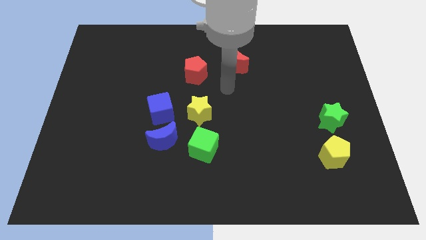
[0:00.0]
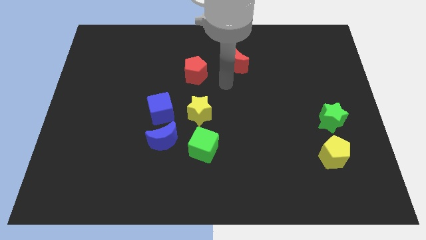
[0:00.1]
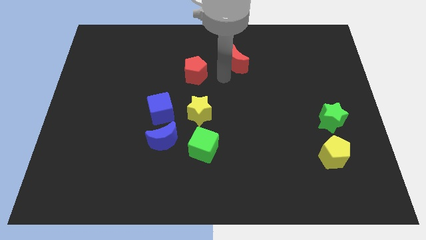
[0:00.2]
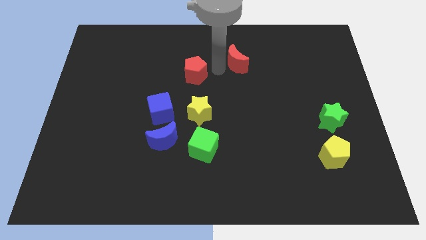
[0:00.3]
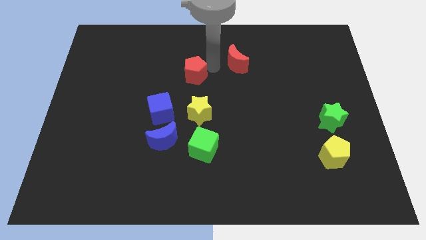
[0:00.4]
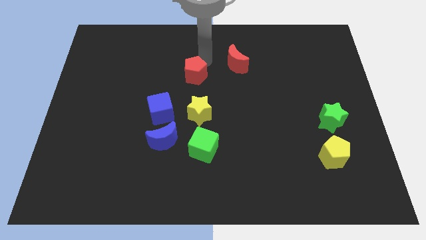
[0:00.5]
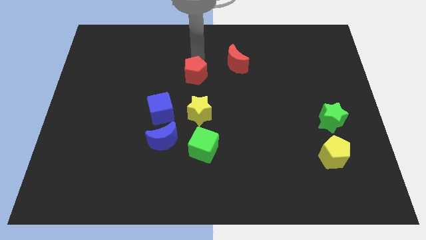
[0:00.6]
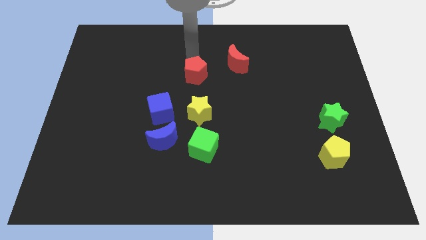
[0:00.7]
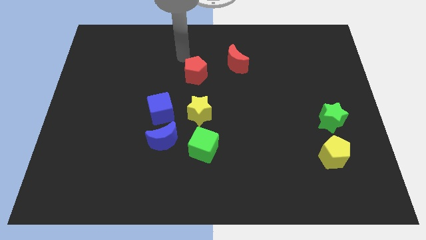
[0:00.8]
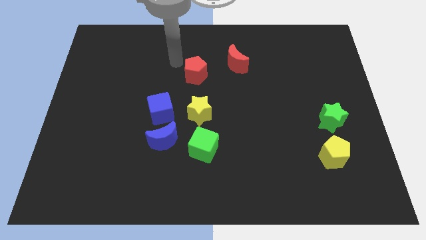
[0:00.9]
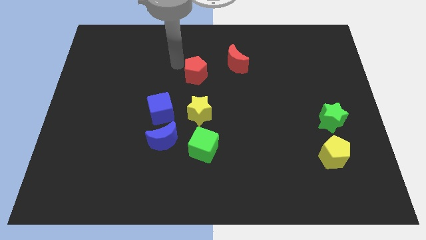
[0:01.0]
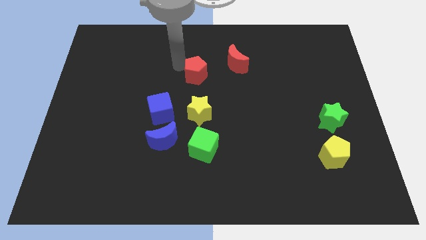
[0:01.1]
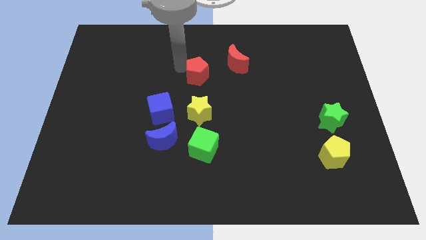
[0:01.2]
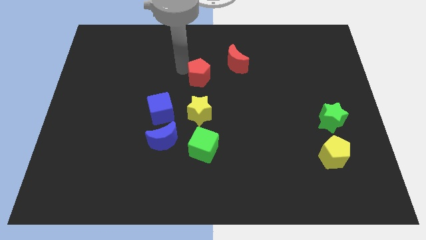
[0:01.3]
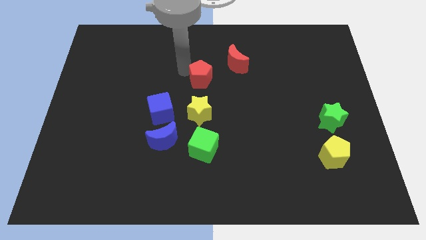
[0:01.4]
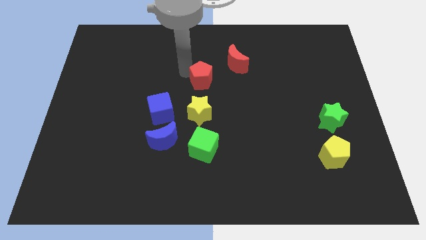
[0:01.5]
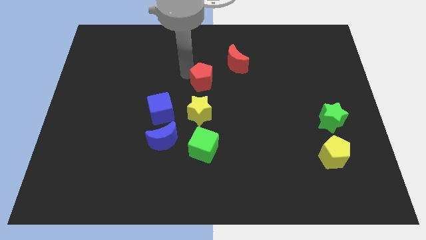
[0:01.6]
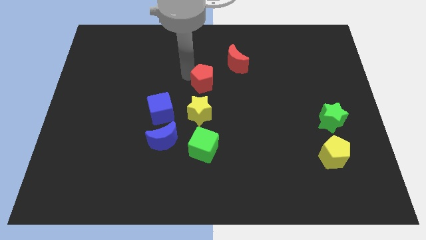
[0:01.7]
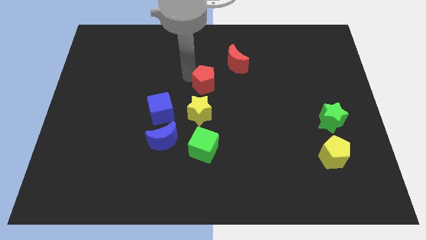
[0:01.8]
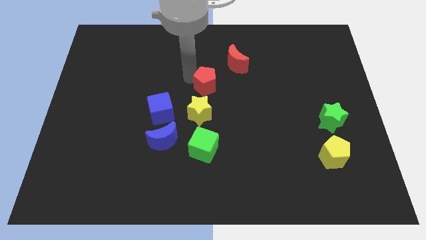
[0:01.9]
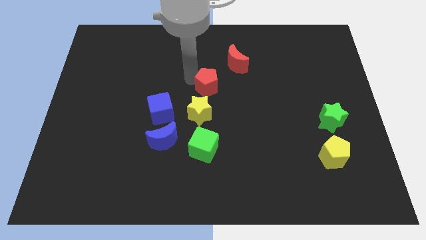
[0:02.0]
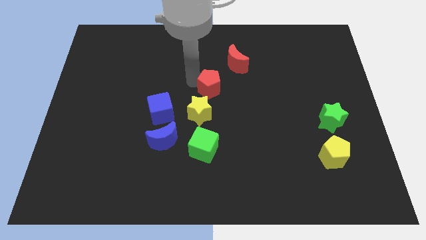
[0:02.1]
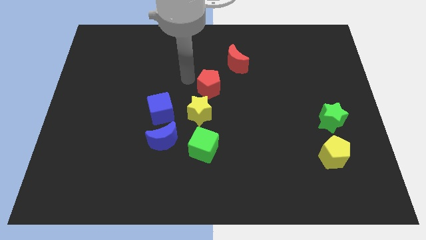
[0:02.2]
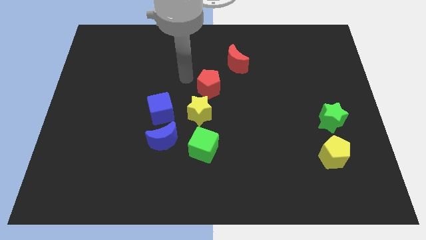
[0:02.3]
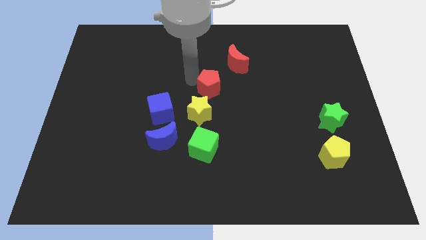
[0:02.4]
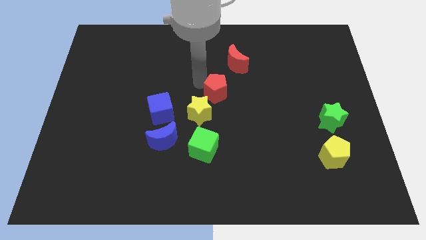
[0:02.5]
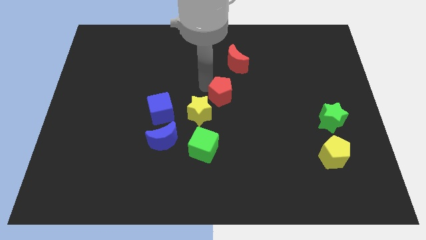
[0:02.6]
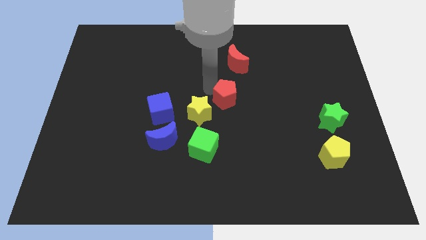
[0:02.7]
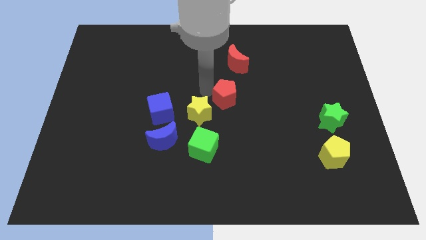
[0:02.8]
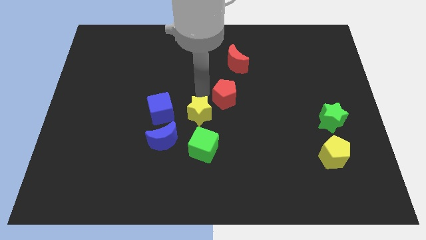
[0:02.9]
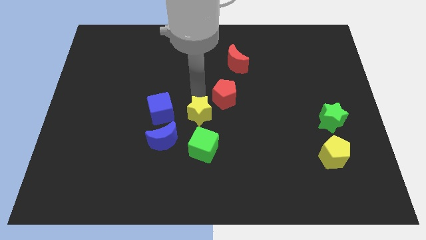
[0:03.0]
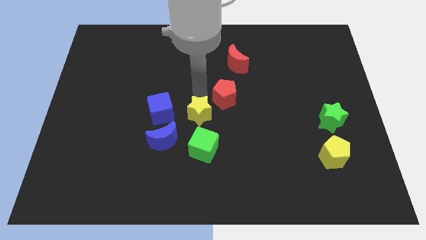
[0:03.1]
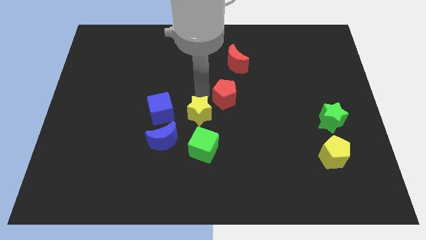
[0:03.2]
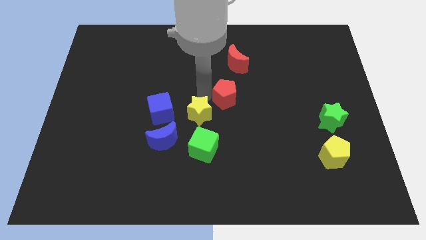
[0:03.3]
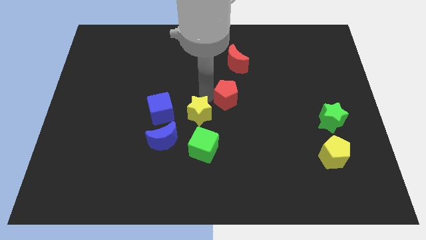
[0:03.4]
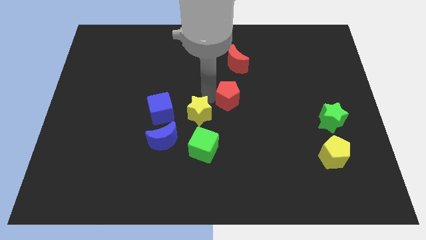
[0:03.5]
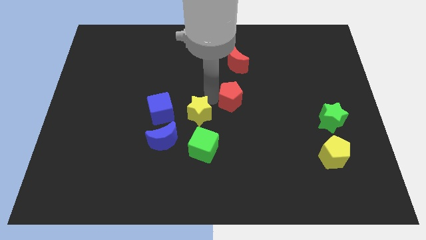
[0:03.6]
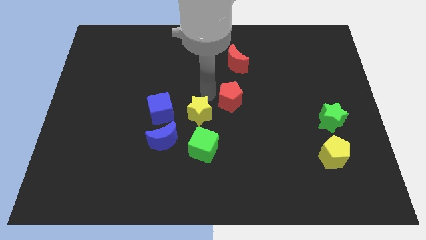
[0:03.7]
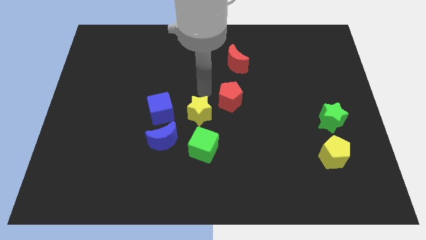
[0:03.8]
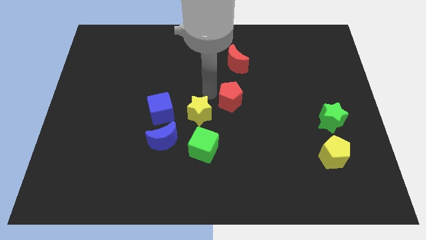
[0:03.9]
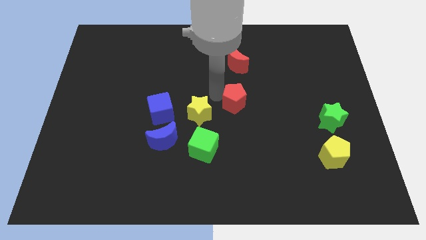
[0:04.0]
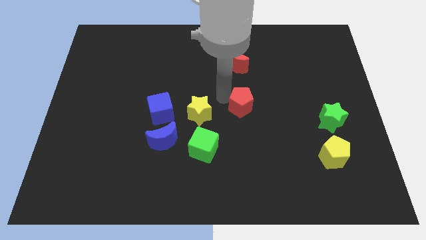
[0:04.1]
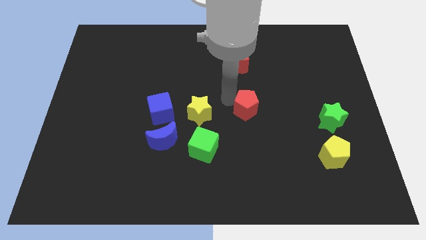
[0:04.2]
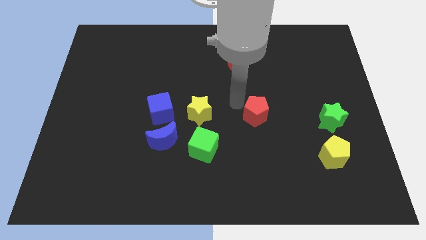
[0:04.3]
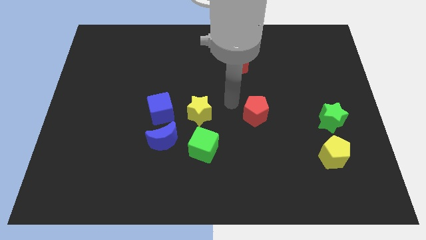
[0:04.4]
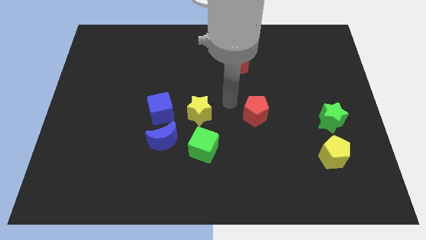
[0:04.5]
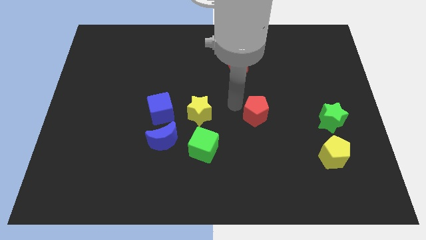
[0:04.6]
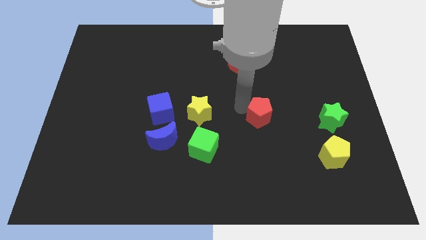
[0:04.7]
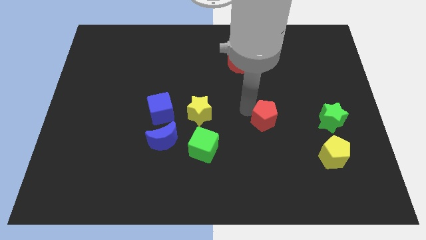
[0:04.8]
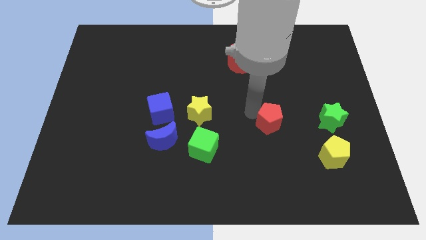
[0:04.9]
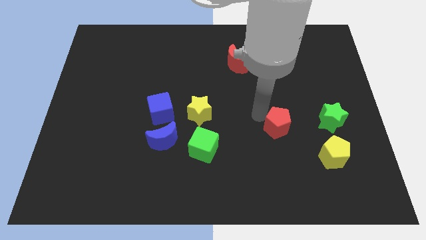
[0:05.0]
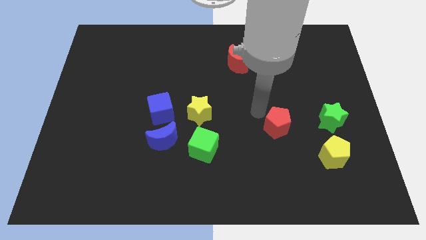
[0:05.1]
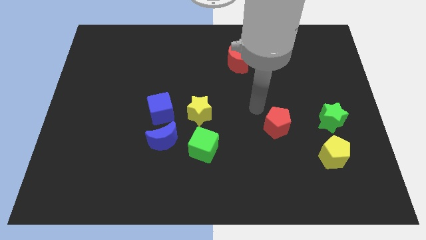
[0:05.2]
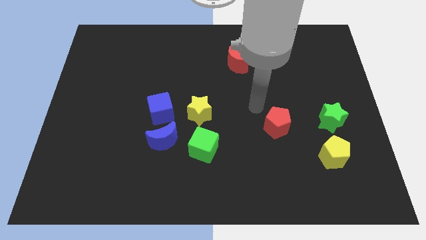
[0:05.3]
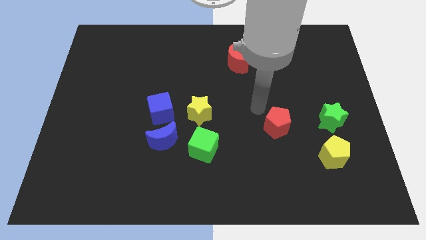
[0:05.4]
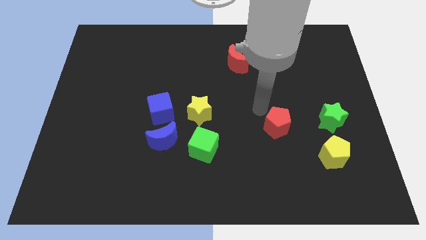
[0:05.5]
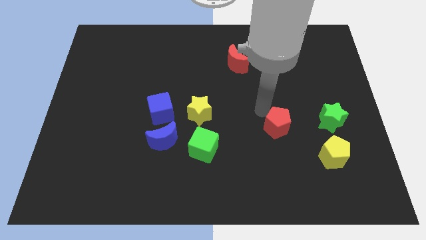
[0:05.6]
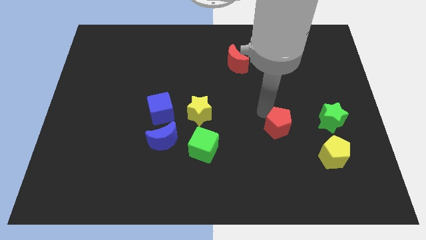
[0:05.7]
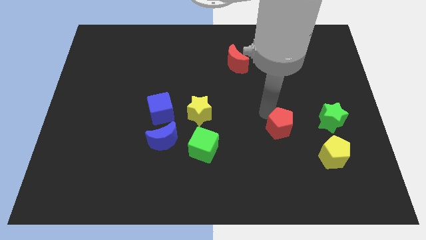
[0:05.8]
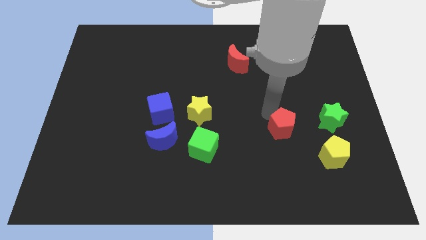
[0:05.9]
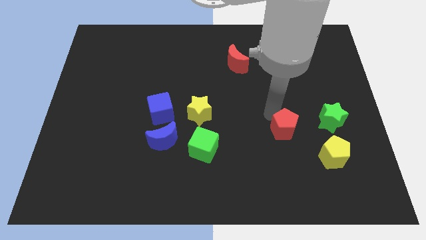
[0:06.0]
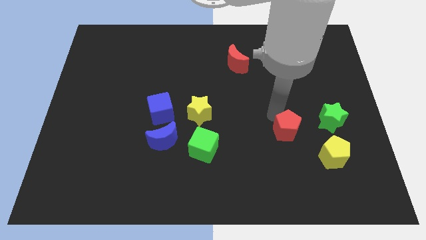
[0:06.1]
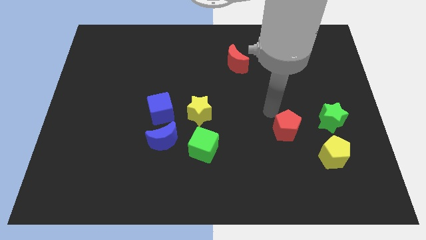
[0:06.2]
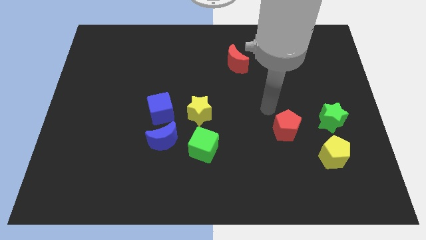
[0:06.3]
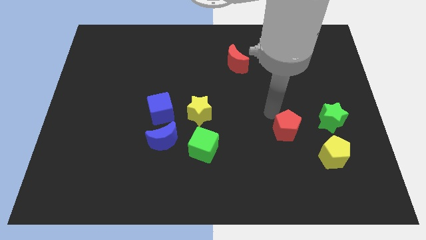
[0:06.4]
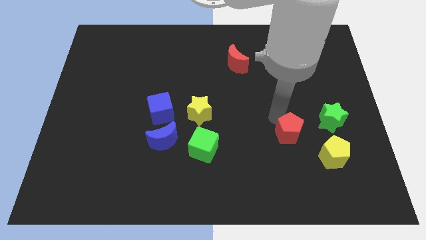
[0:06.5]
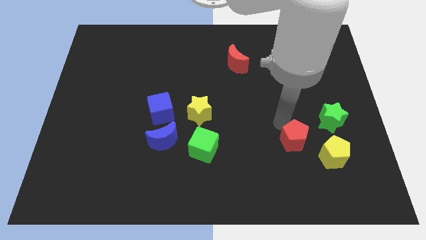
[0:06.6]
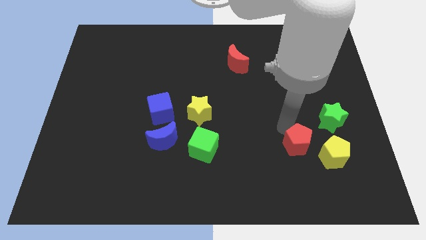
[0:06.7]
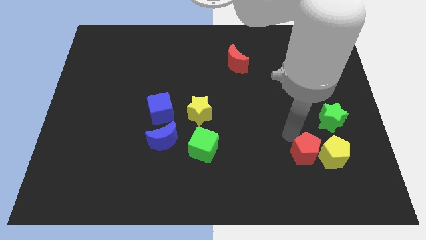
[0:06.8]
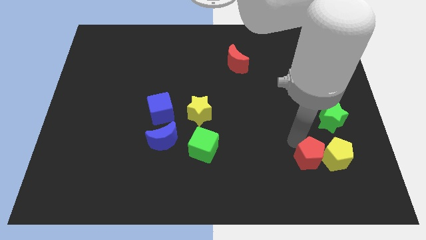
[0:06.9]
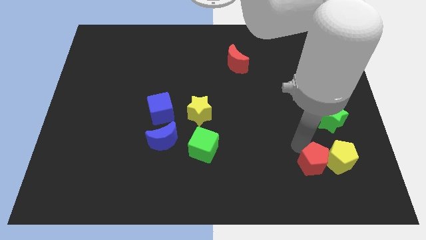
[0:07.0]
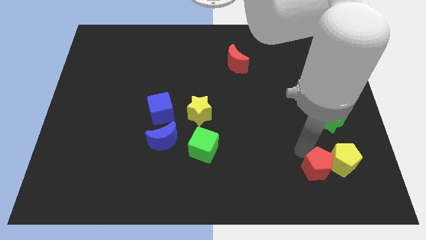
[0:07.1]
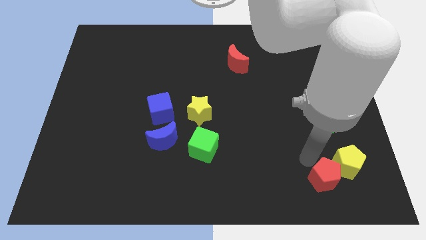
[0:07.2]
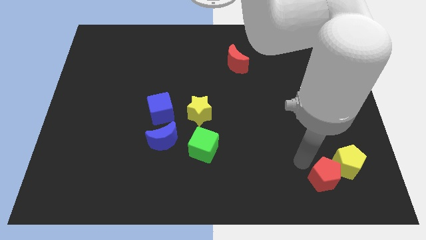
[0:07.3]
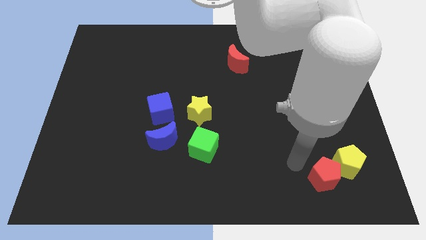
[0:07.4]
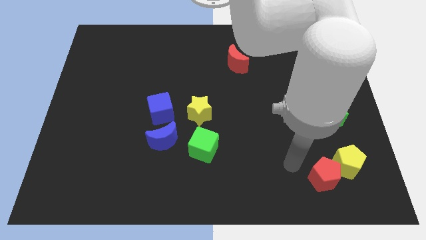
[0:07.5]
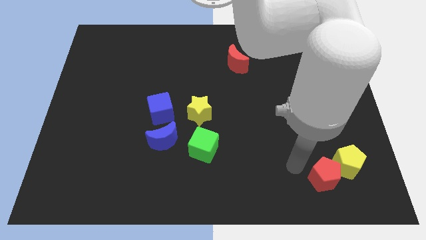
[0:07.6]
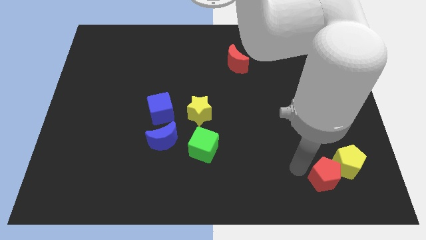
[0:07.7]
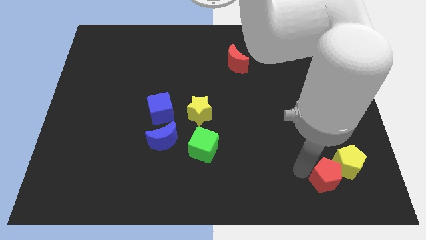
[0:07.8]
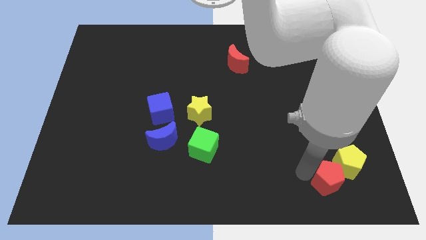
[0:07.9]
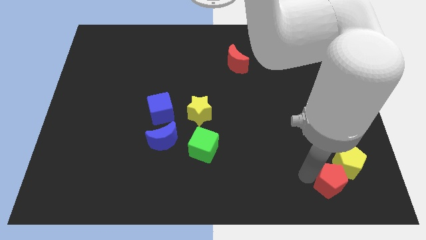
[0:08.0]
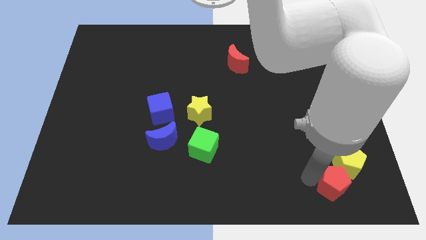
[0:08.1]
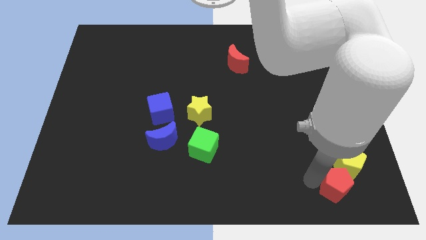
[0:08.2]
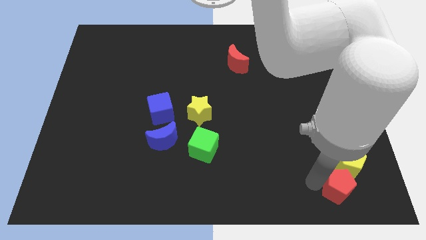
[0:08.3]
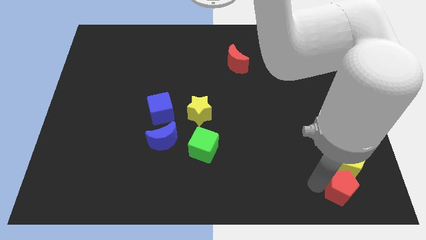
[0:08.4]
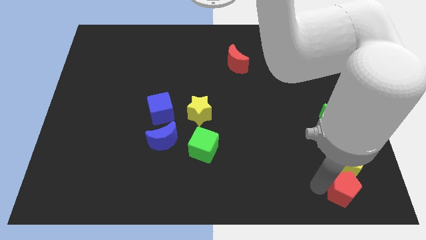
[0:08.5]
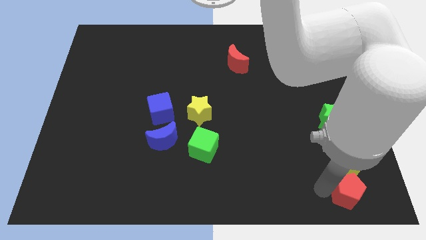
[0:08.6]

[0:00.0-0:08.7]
push the red pentagon to the bottom right of the board
